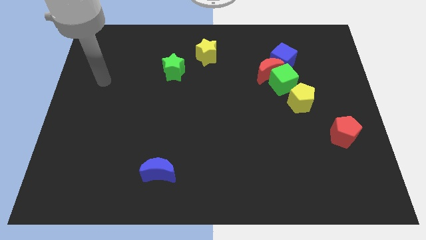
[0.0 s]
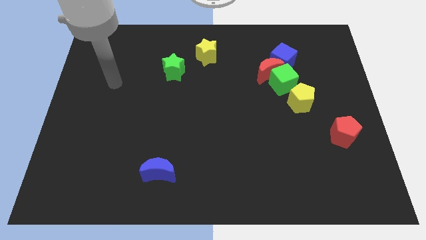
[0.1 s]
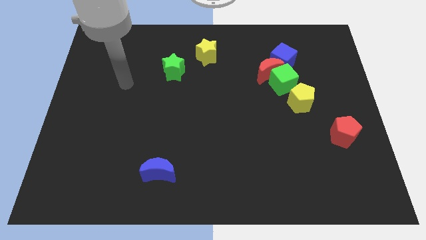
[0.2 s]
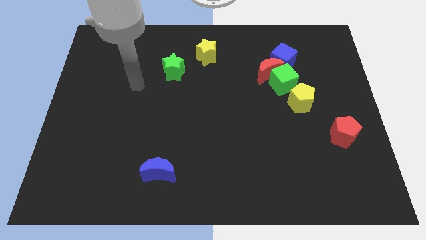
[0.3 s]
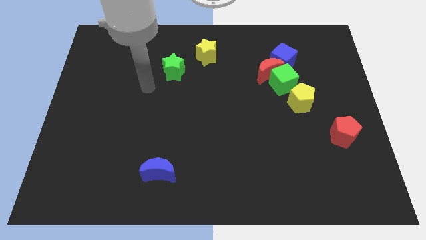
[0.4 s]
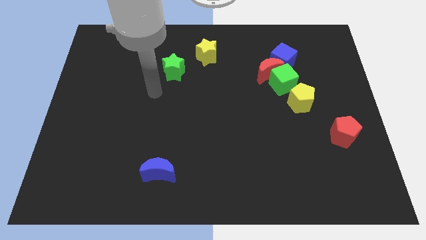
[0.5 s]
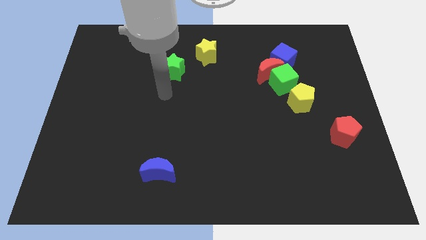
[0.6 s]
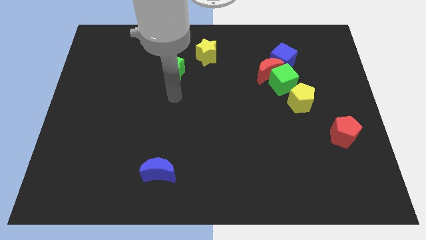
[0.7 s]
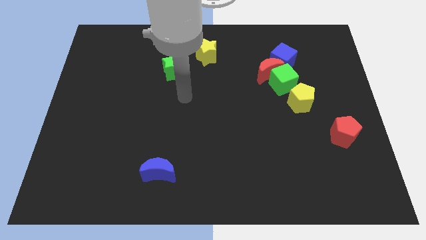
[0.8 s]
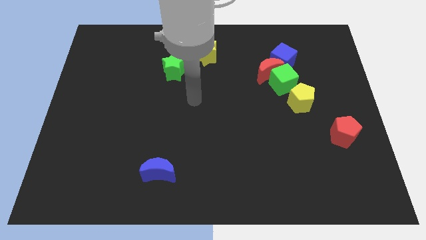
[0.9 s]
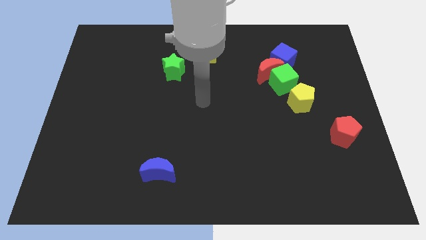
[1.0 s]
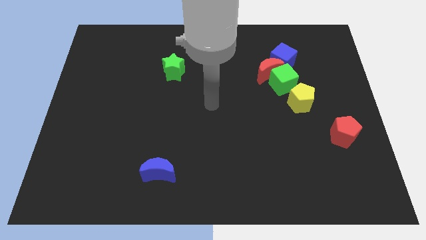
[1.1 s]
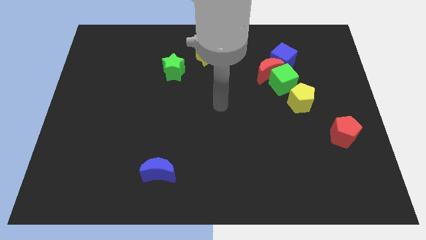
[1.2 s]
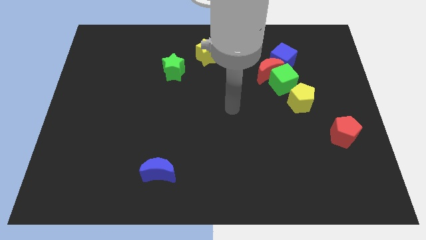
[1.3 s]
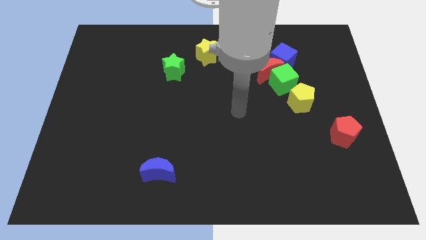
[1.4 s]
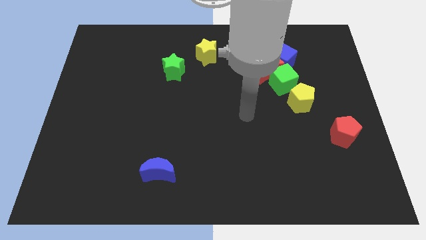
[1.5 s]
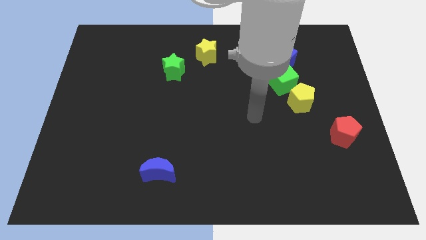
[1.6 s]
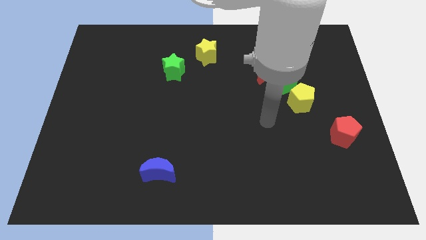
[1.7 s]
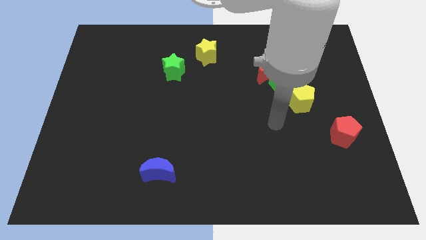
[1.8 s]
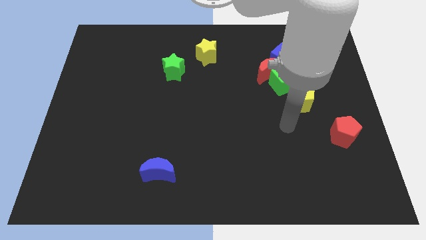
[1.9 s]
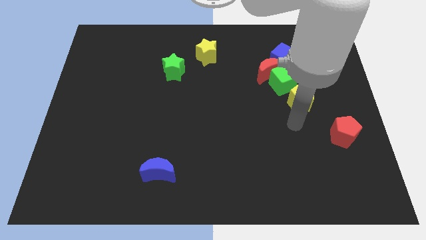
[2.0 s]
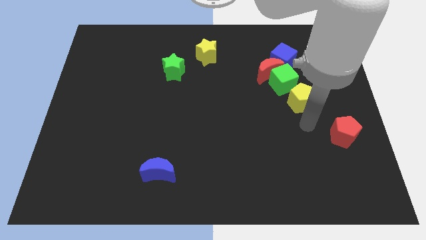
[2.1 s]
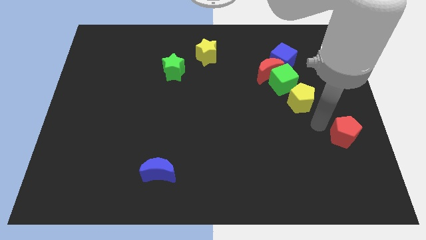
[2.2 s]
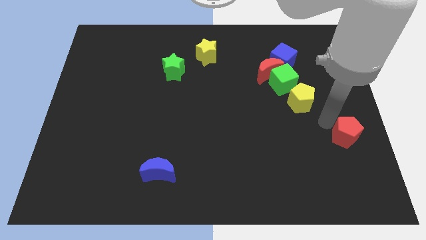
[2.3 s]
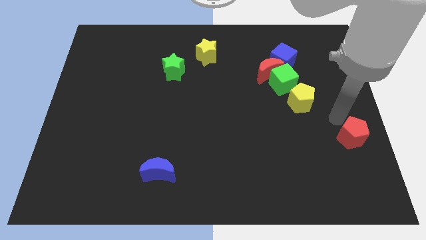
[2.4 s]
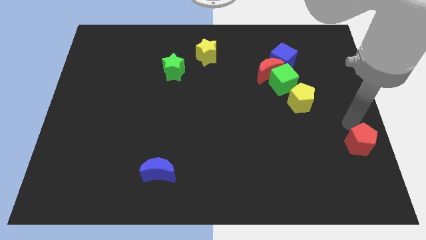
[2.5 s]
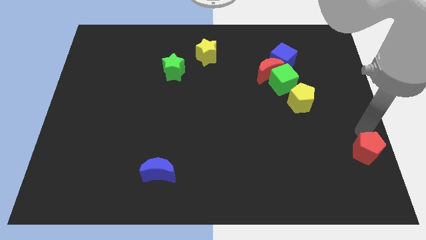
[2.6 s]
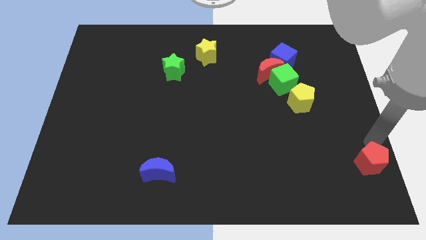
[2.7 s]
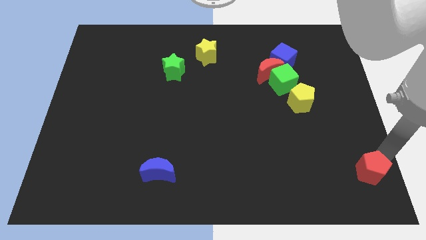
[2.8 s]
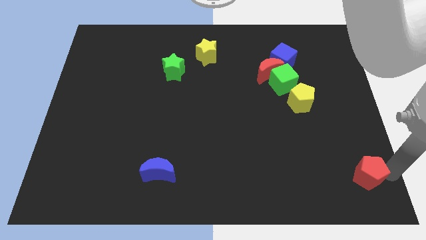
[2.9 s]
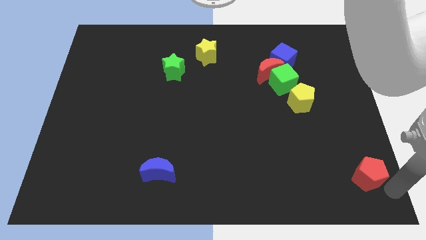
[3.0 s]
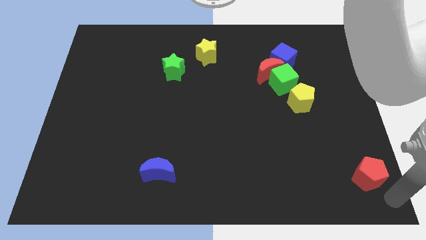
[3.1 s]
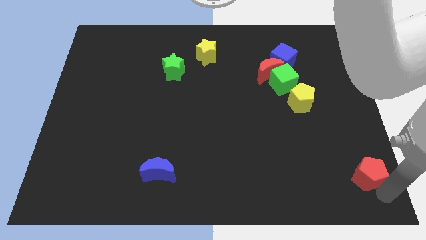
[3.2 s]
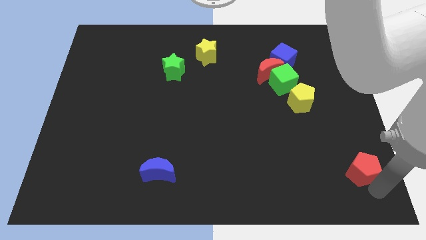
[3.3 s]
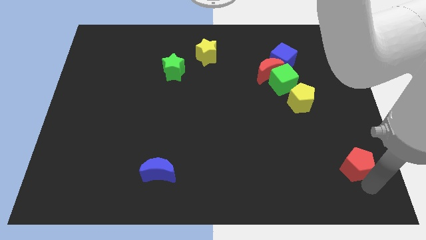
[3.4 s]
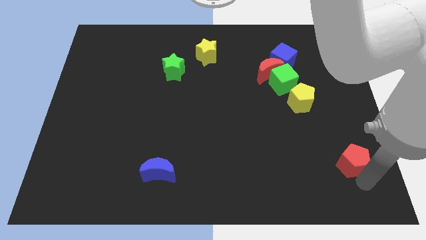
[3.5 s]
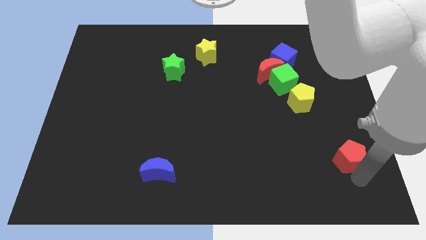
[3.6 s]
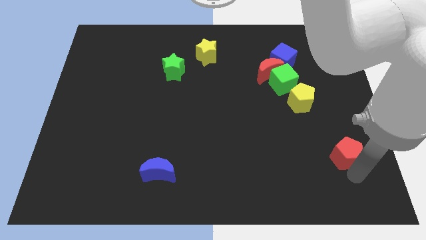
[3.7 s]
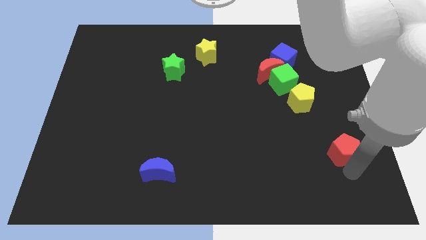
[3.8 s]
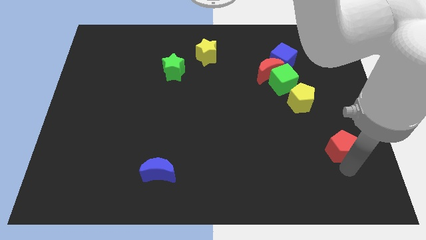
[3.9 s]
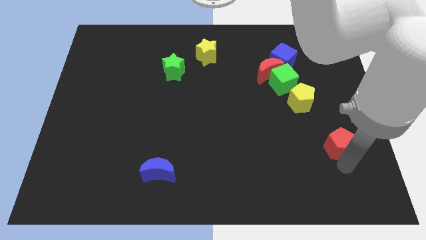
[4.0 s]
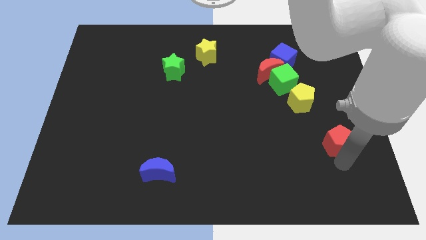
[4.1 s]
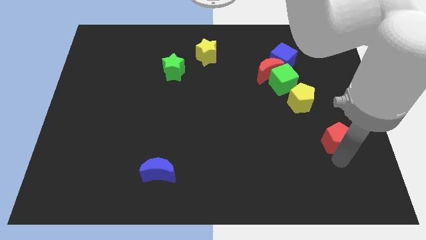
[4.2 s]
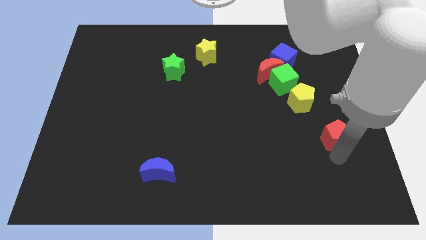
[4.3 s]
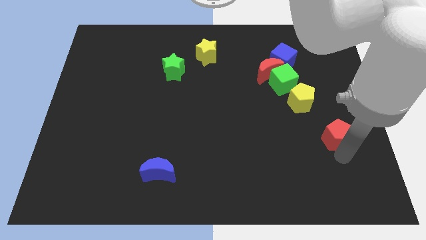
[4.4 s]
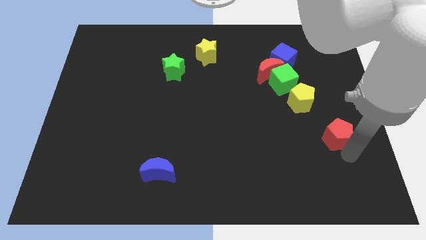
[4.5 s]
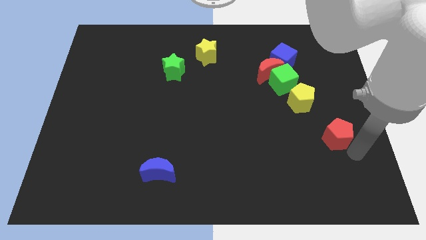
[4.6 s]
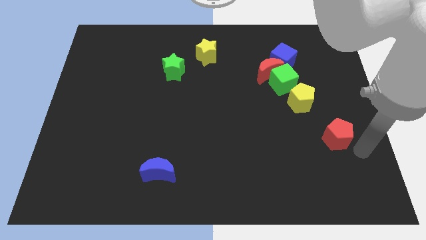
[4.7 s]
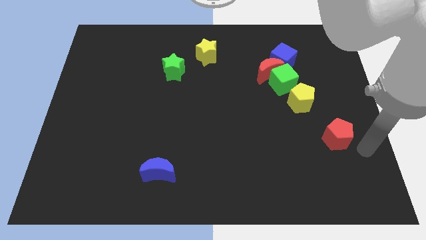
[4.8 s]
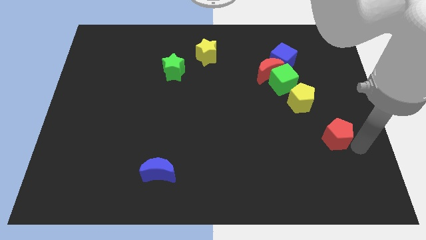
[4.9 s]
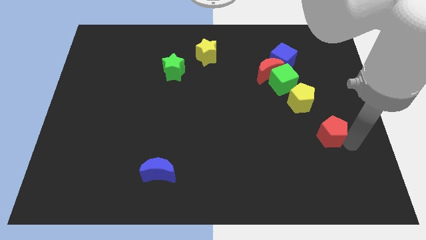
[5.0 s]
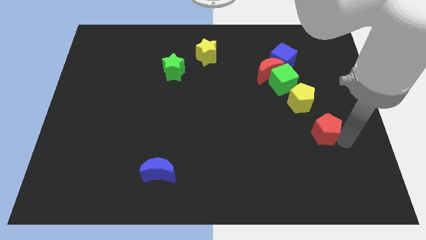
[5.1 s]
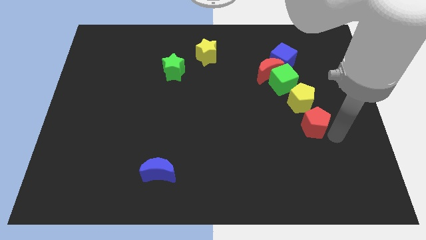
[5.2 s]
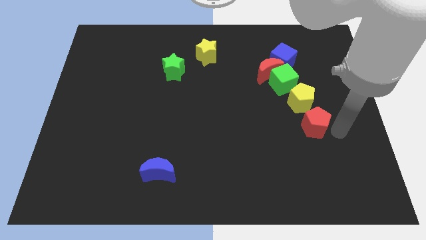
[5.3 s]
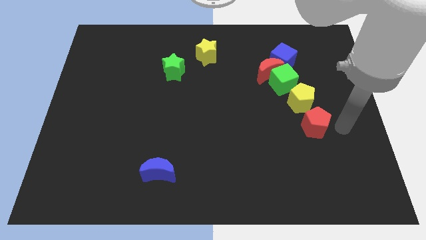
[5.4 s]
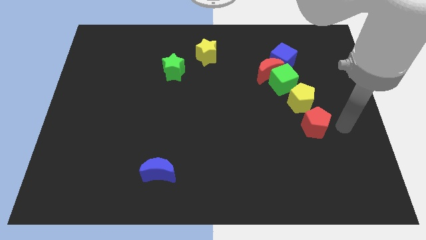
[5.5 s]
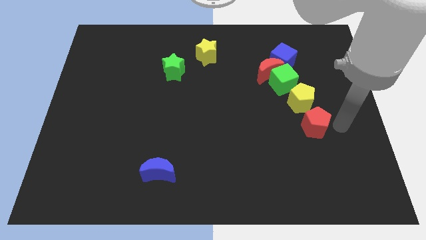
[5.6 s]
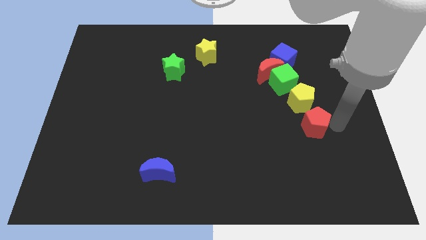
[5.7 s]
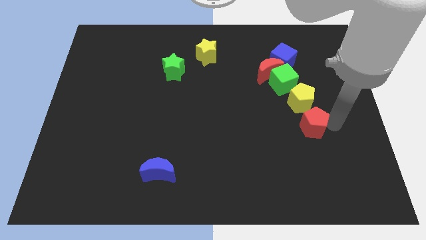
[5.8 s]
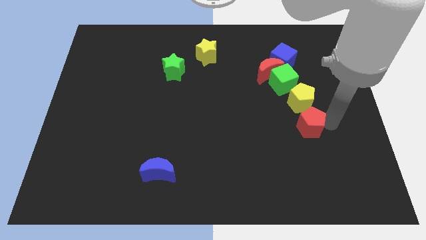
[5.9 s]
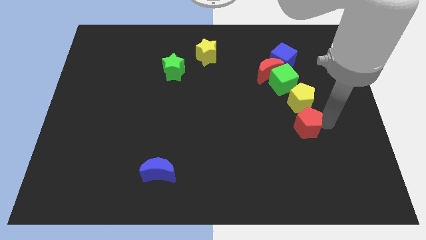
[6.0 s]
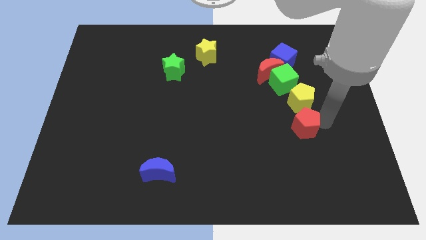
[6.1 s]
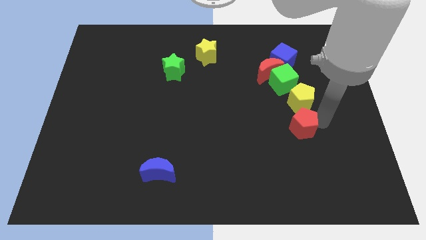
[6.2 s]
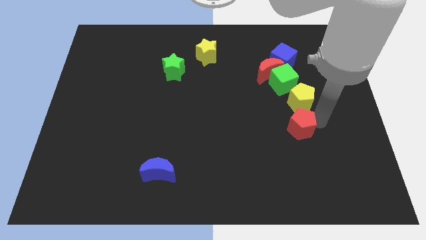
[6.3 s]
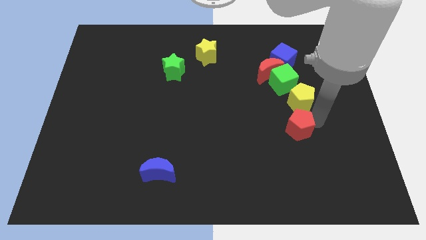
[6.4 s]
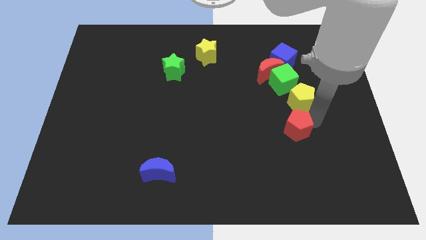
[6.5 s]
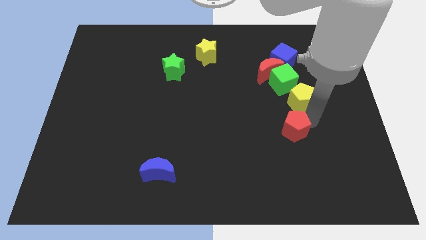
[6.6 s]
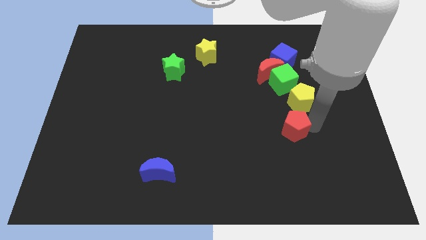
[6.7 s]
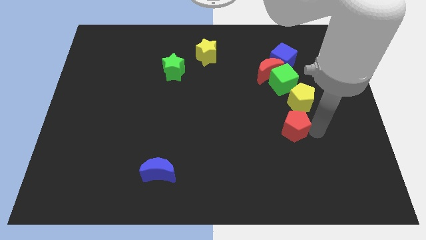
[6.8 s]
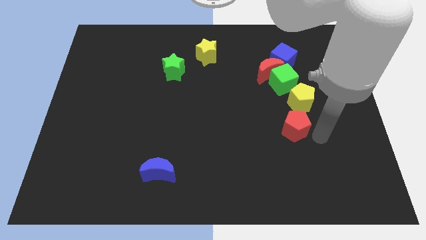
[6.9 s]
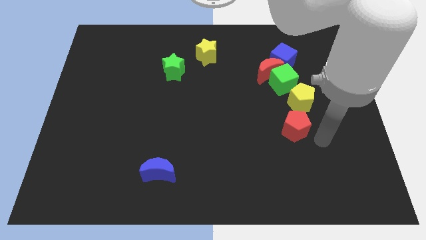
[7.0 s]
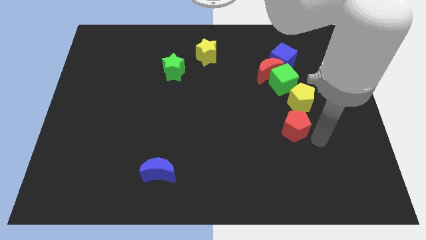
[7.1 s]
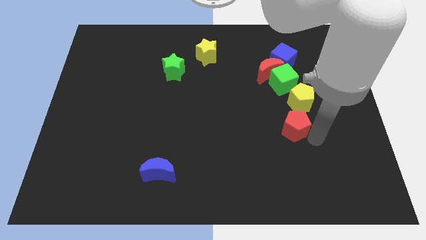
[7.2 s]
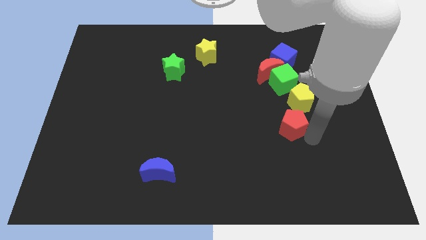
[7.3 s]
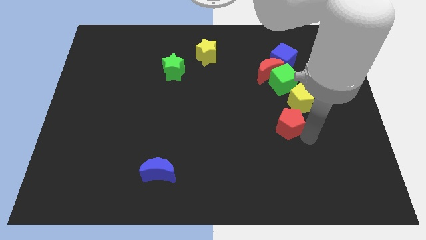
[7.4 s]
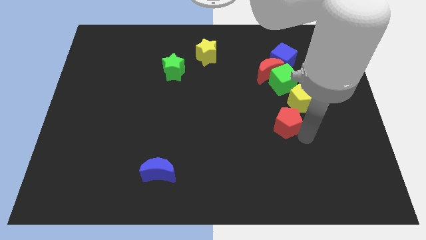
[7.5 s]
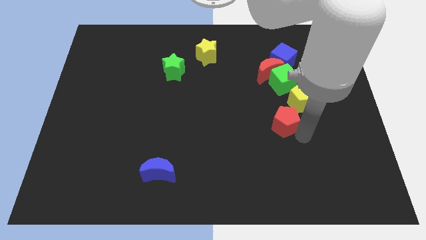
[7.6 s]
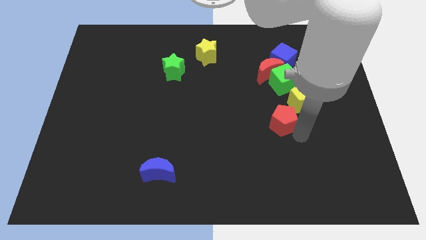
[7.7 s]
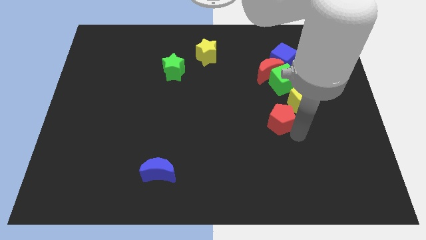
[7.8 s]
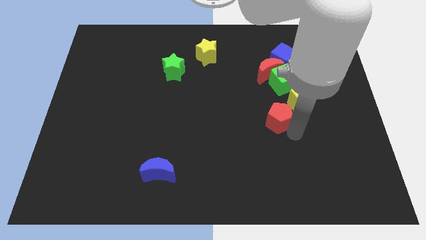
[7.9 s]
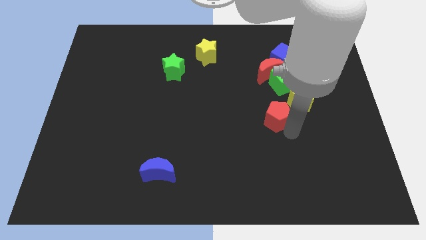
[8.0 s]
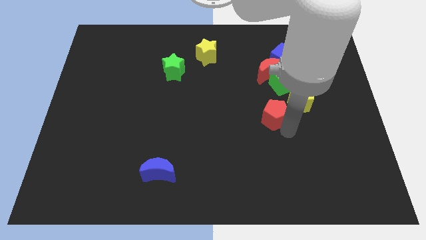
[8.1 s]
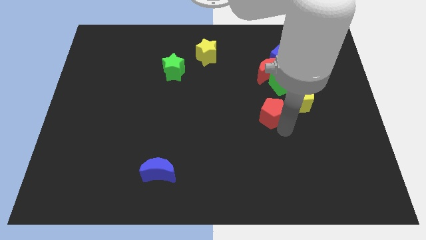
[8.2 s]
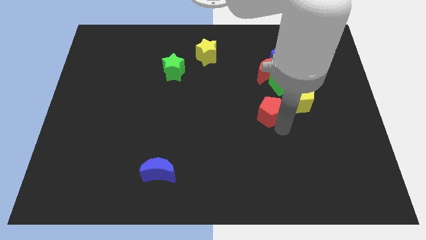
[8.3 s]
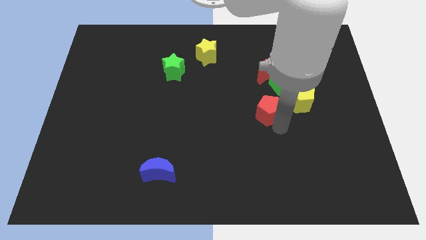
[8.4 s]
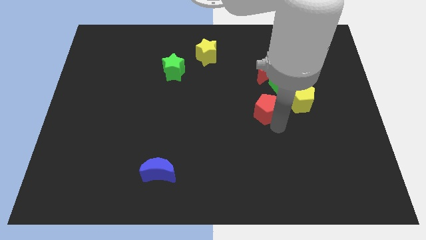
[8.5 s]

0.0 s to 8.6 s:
move the red pentagon to the middle
